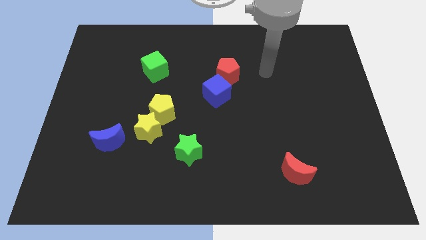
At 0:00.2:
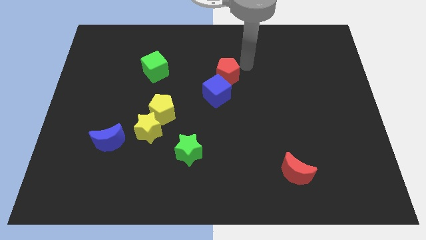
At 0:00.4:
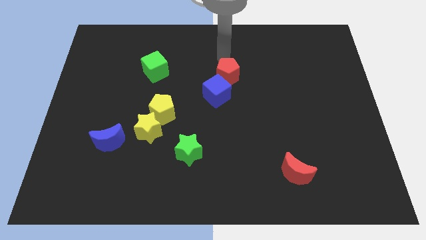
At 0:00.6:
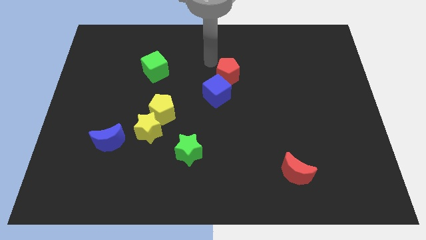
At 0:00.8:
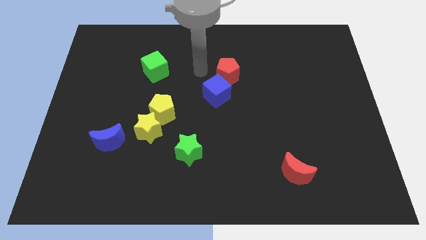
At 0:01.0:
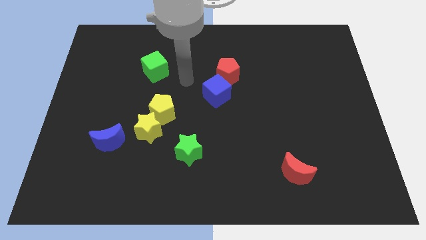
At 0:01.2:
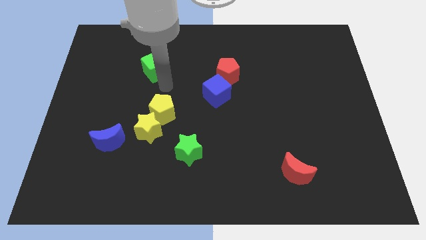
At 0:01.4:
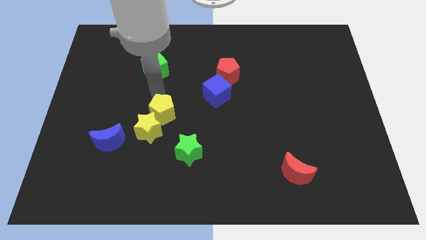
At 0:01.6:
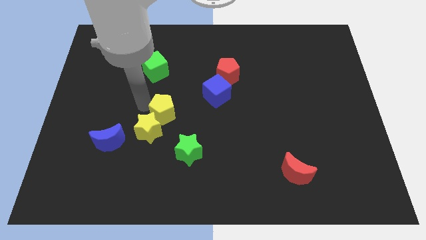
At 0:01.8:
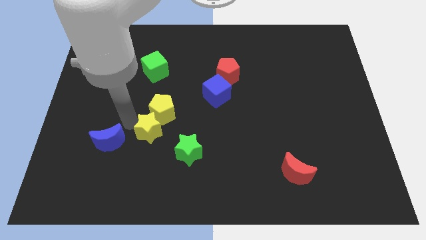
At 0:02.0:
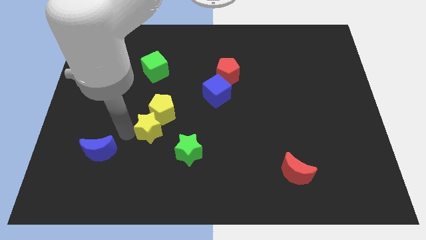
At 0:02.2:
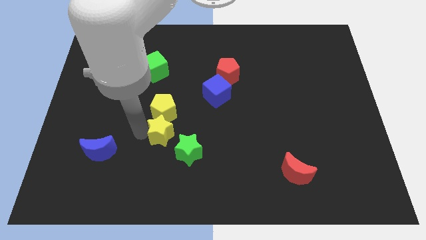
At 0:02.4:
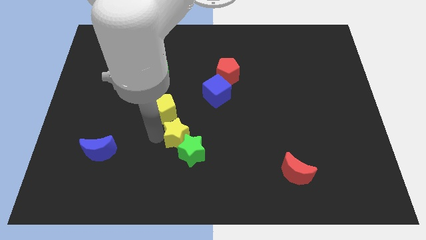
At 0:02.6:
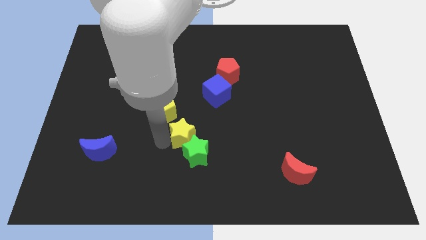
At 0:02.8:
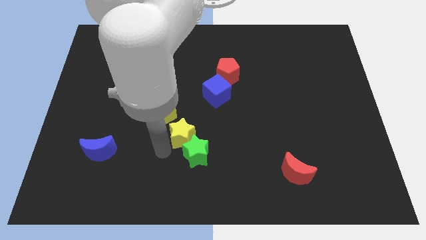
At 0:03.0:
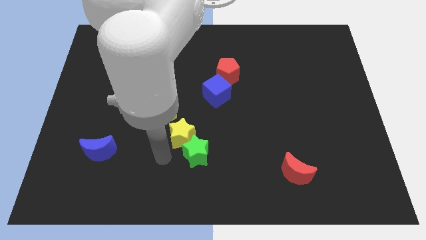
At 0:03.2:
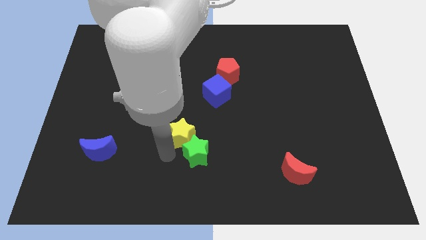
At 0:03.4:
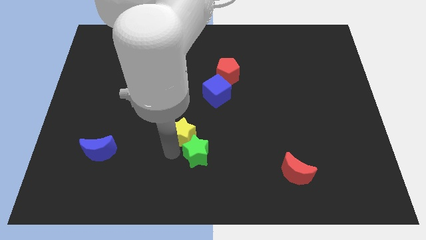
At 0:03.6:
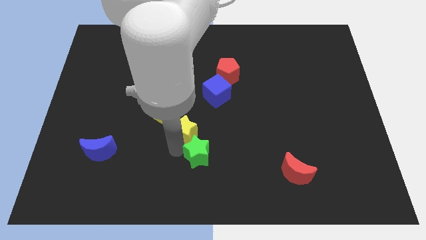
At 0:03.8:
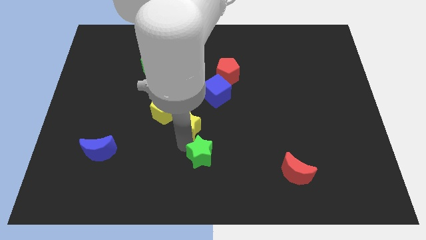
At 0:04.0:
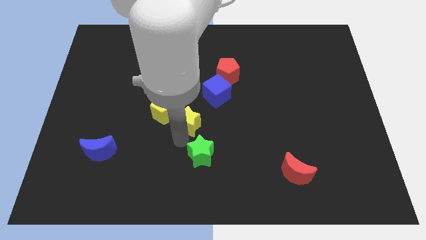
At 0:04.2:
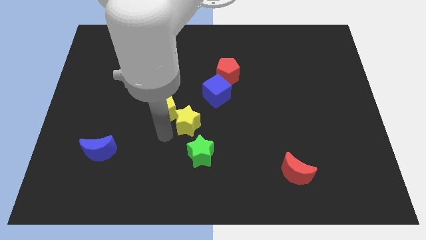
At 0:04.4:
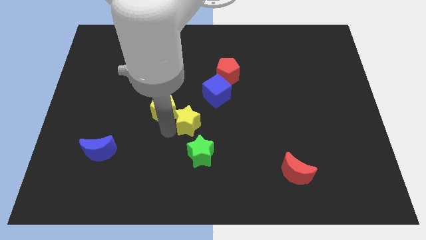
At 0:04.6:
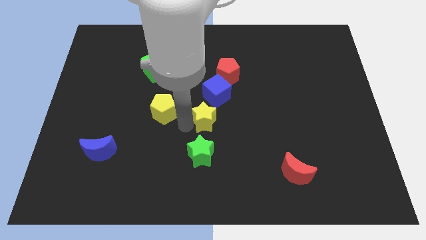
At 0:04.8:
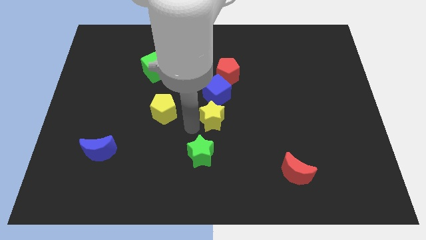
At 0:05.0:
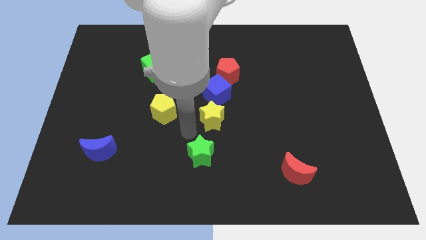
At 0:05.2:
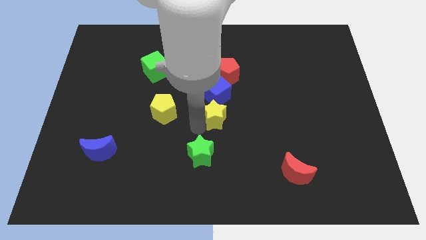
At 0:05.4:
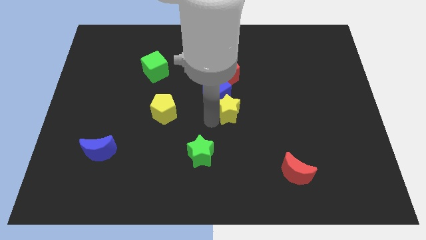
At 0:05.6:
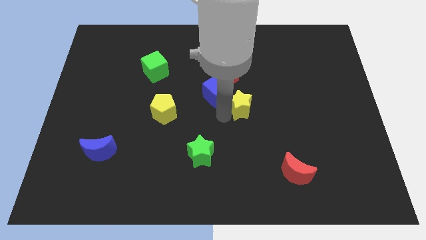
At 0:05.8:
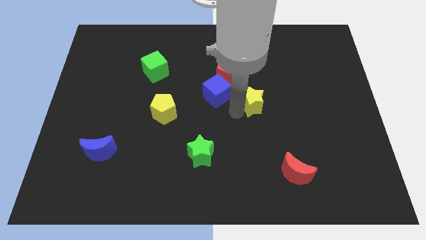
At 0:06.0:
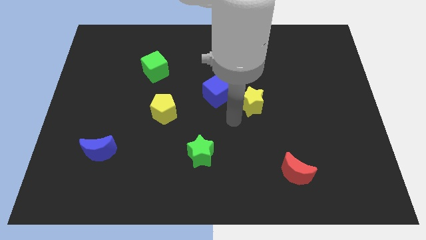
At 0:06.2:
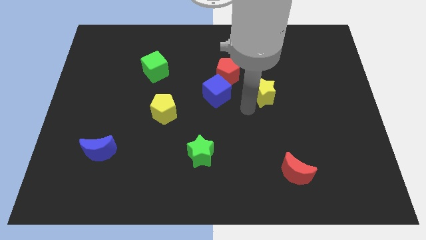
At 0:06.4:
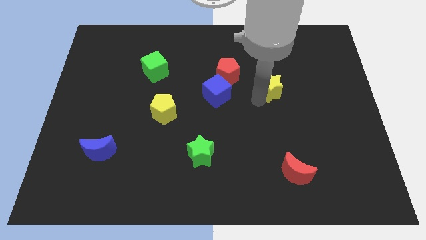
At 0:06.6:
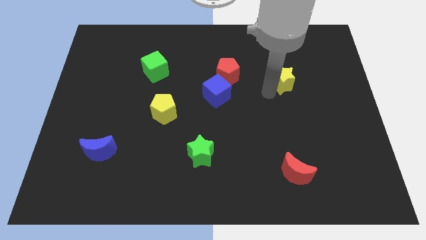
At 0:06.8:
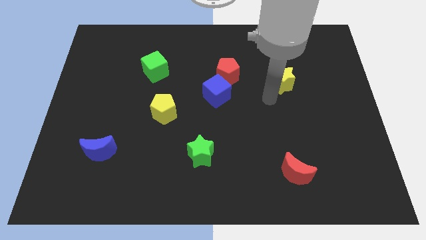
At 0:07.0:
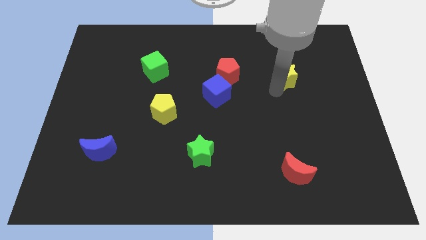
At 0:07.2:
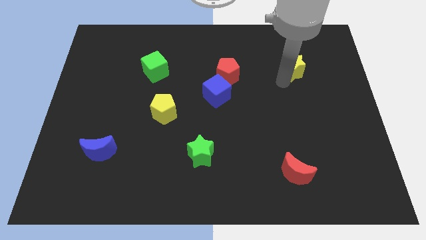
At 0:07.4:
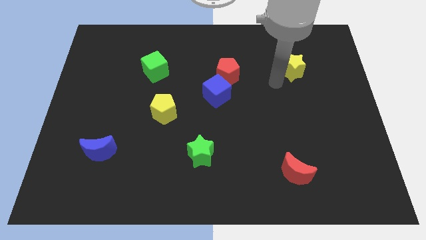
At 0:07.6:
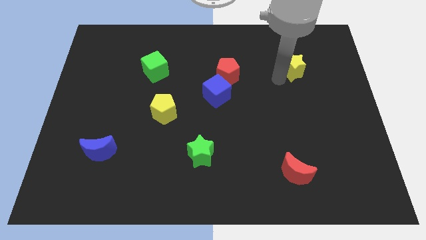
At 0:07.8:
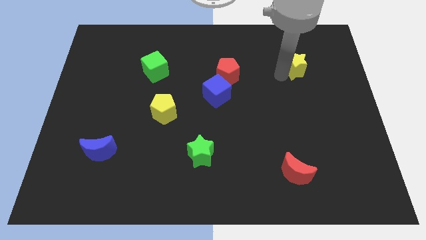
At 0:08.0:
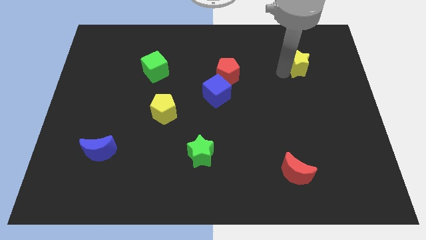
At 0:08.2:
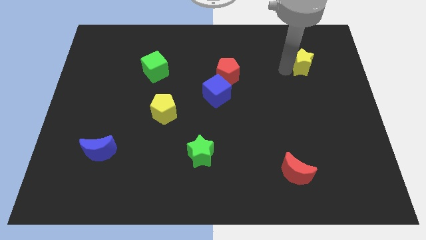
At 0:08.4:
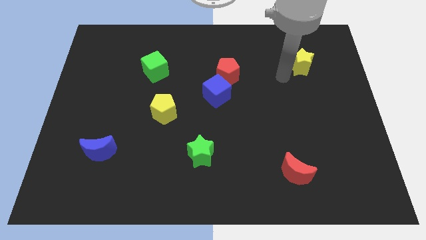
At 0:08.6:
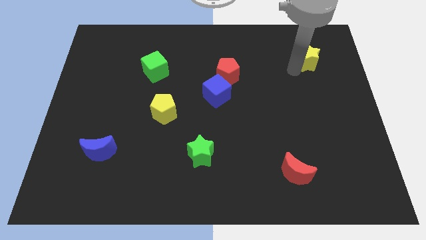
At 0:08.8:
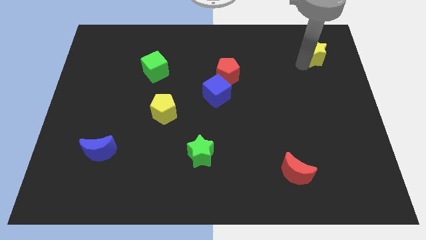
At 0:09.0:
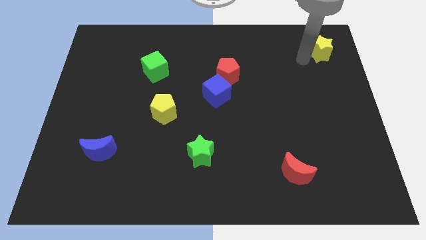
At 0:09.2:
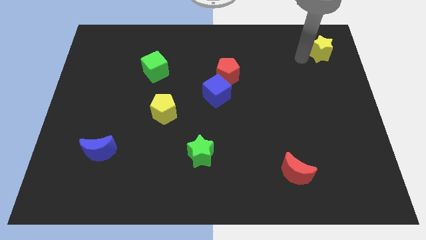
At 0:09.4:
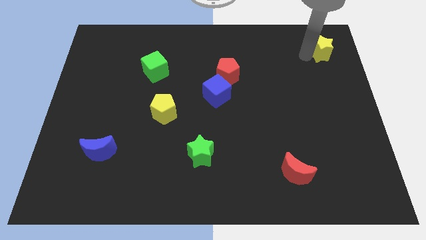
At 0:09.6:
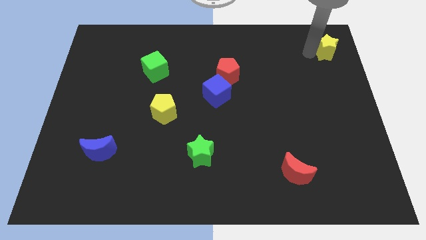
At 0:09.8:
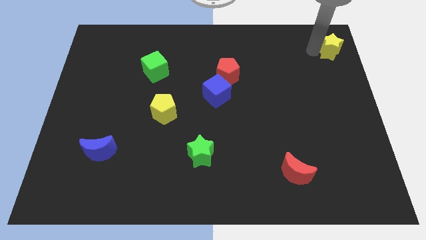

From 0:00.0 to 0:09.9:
put the yellow star to the top right corner

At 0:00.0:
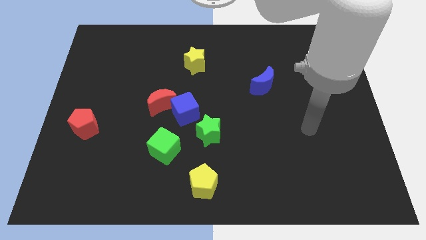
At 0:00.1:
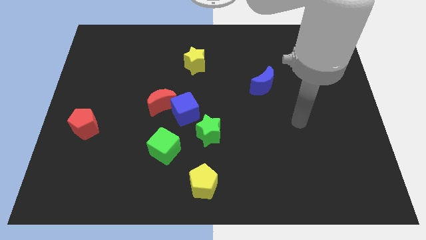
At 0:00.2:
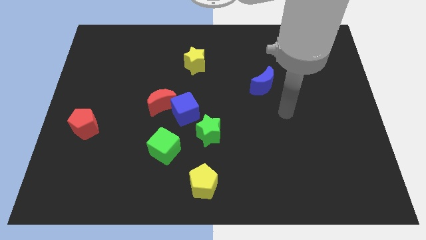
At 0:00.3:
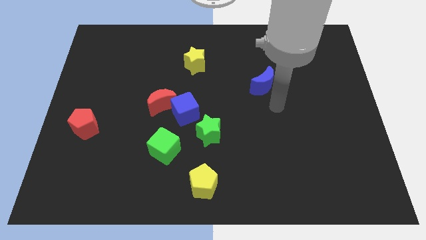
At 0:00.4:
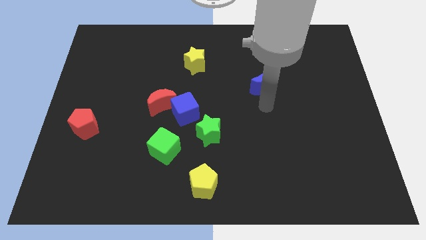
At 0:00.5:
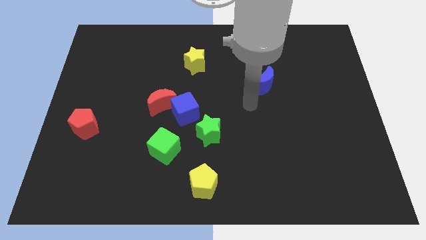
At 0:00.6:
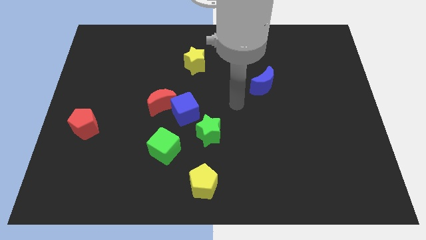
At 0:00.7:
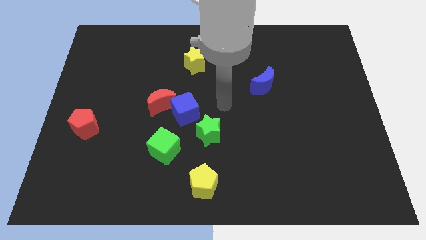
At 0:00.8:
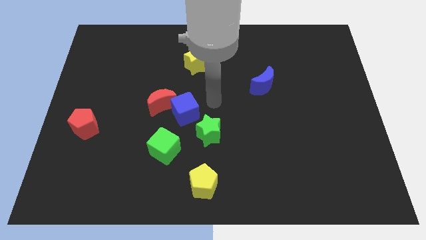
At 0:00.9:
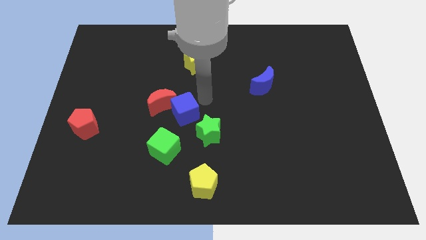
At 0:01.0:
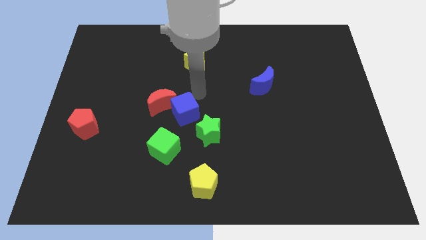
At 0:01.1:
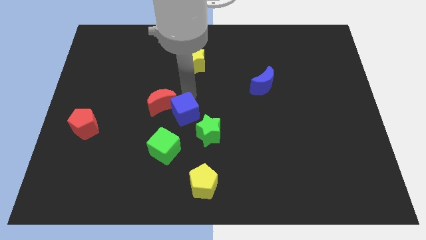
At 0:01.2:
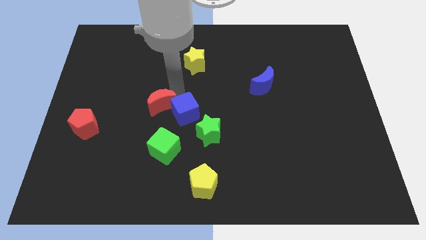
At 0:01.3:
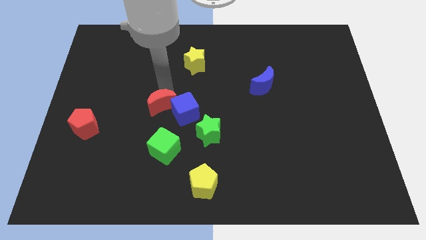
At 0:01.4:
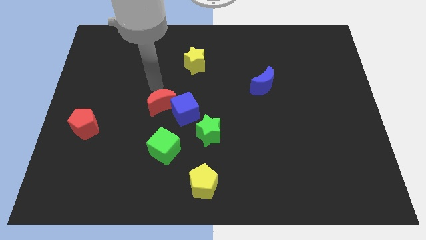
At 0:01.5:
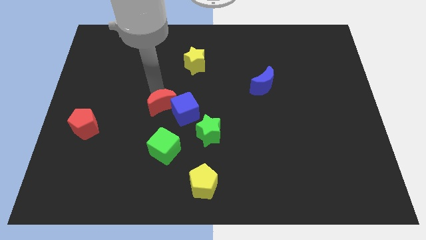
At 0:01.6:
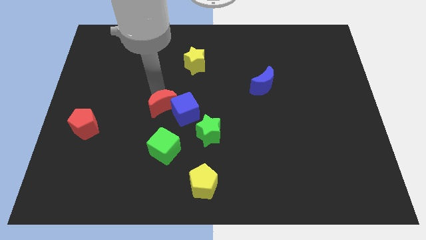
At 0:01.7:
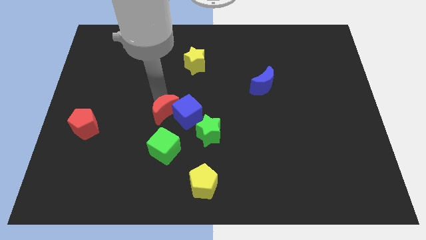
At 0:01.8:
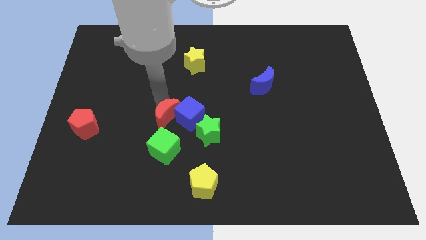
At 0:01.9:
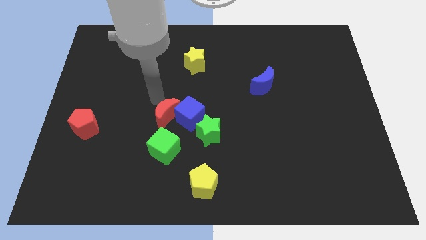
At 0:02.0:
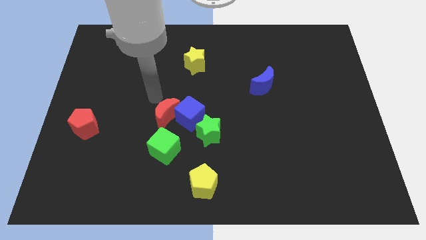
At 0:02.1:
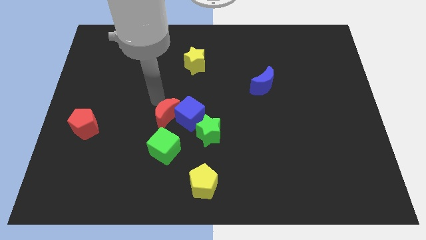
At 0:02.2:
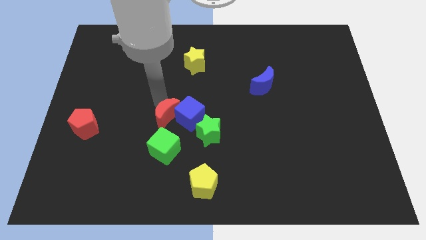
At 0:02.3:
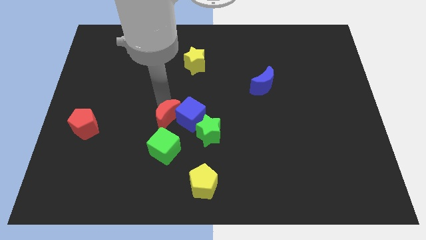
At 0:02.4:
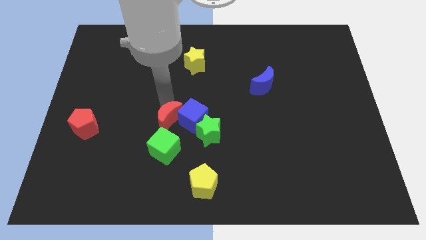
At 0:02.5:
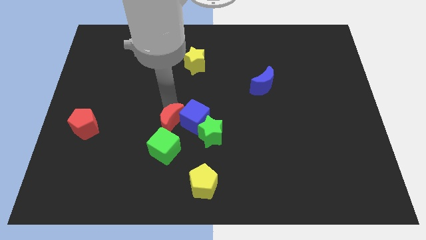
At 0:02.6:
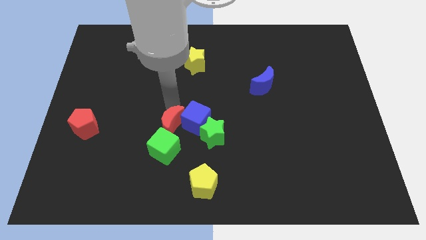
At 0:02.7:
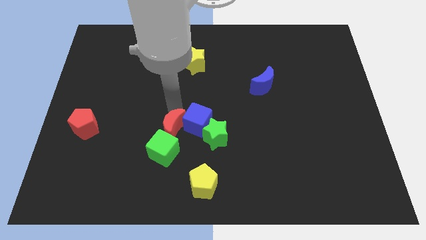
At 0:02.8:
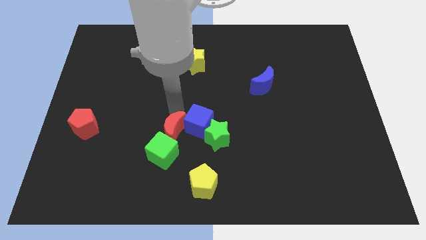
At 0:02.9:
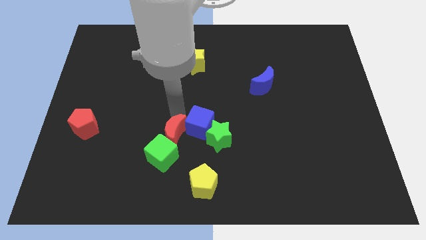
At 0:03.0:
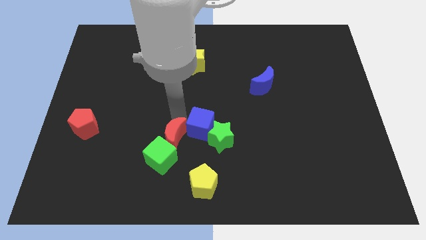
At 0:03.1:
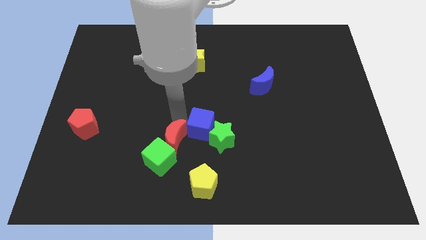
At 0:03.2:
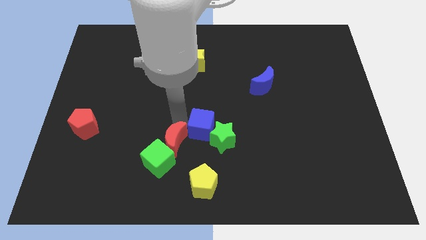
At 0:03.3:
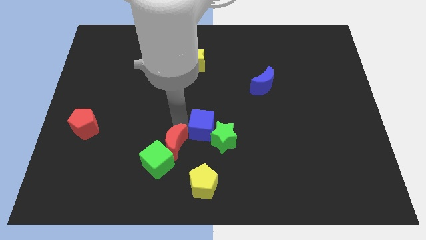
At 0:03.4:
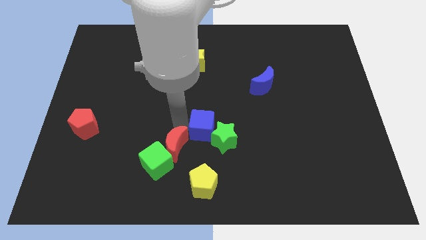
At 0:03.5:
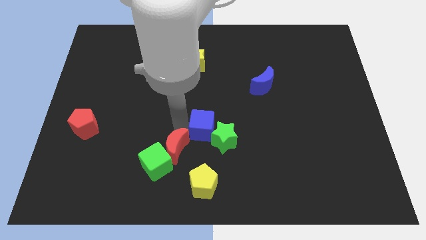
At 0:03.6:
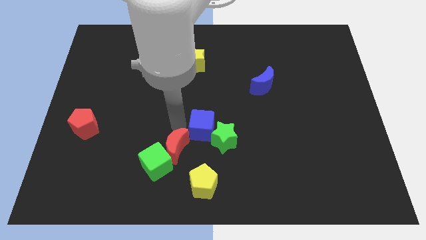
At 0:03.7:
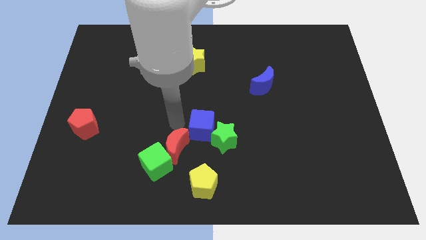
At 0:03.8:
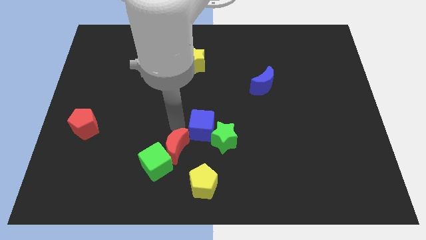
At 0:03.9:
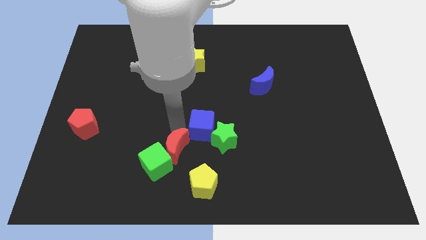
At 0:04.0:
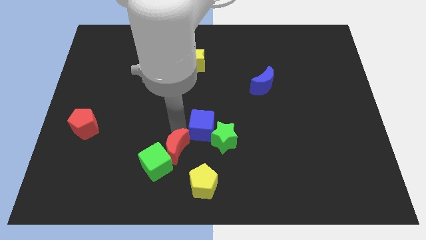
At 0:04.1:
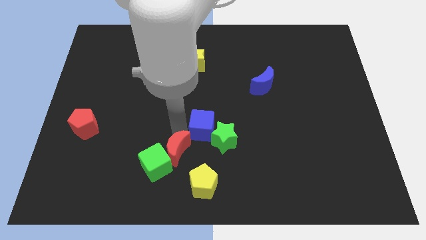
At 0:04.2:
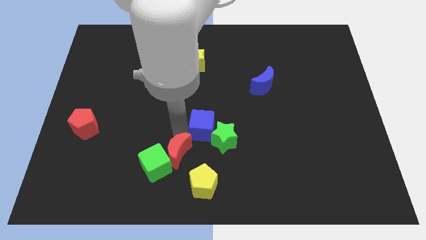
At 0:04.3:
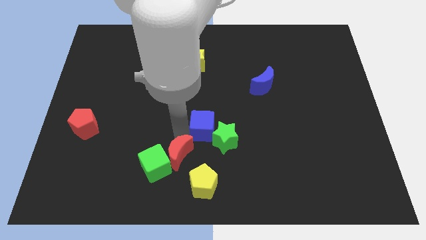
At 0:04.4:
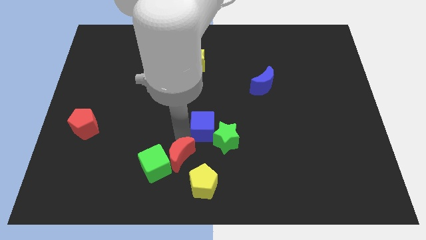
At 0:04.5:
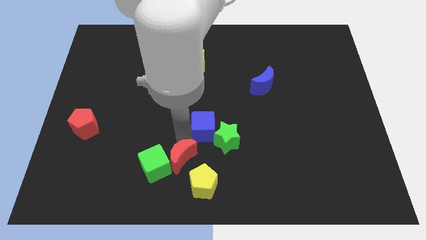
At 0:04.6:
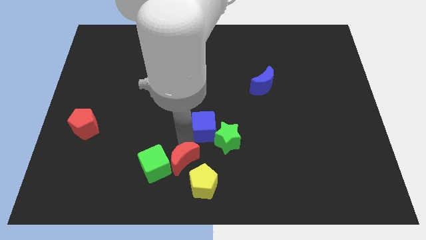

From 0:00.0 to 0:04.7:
push the red moon to the bottom
